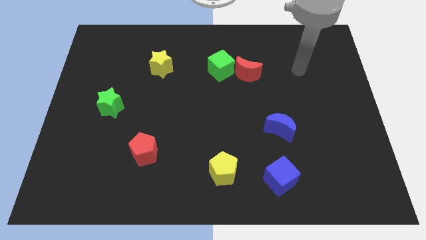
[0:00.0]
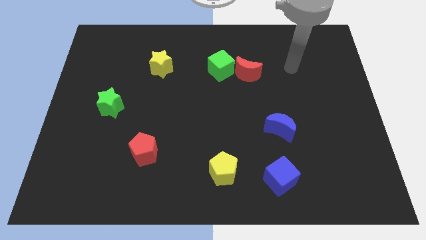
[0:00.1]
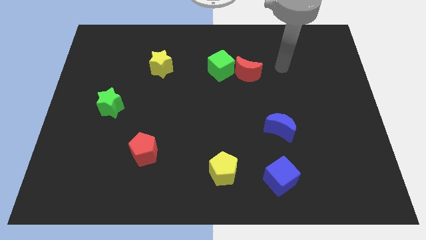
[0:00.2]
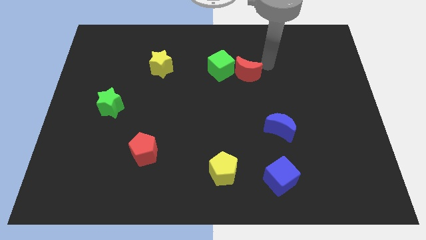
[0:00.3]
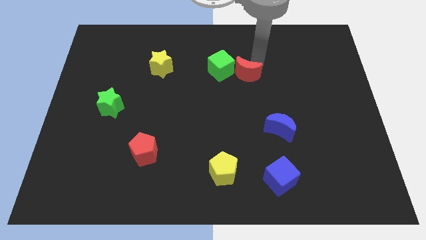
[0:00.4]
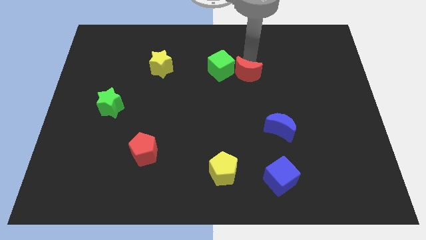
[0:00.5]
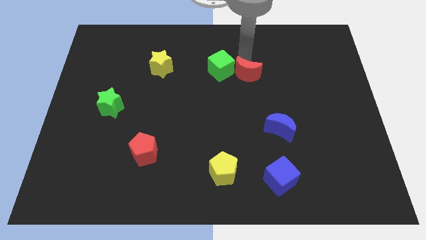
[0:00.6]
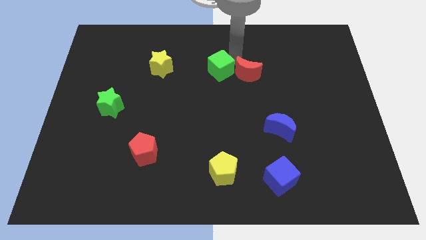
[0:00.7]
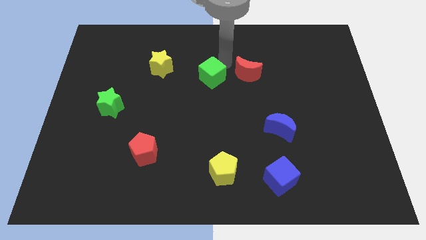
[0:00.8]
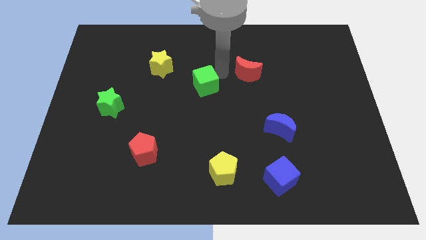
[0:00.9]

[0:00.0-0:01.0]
separate the red moon from the green cube

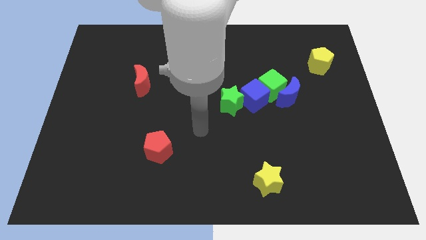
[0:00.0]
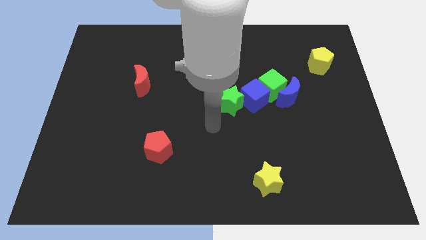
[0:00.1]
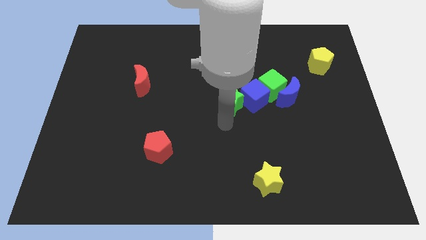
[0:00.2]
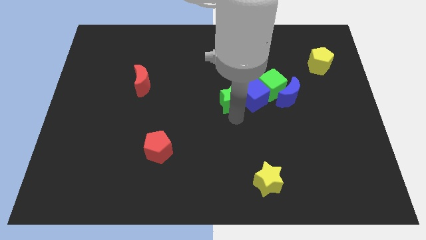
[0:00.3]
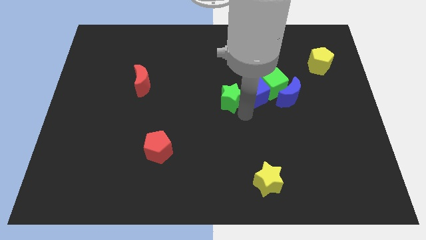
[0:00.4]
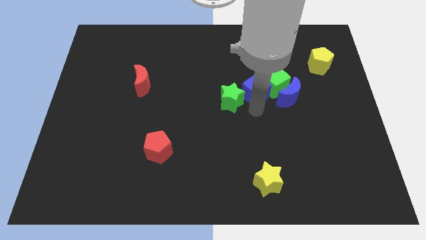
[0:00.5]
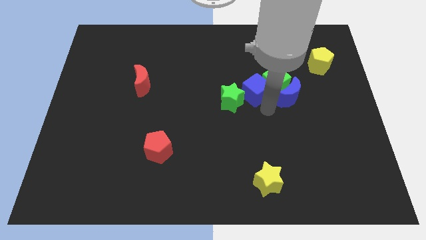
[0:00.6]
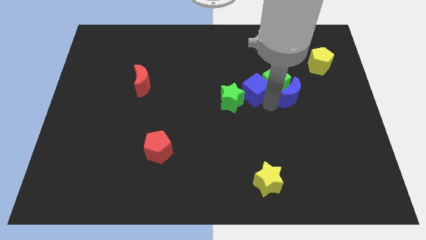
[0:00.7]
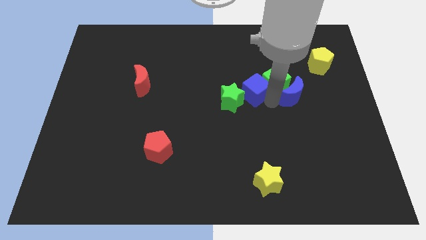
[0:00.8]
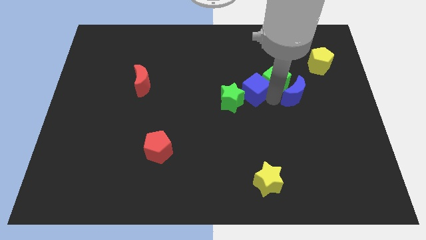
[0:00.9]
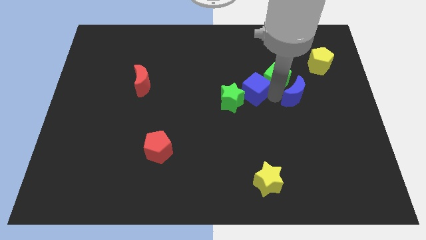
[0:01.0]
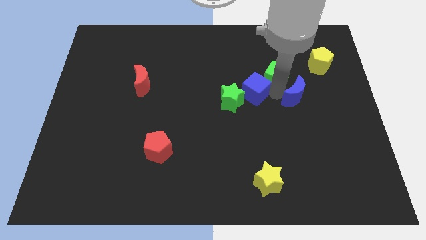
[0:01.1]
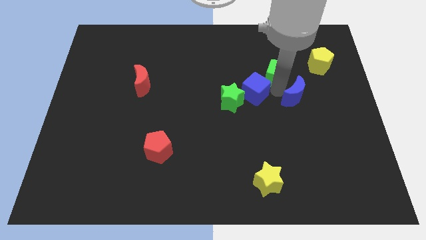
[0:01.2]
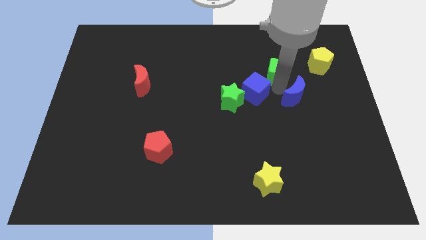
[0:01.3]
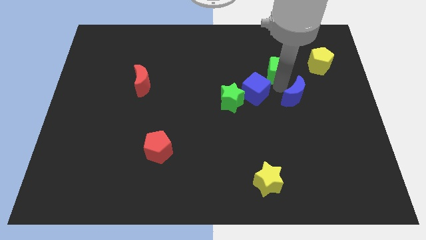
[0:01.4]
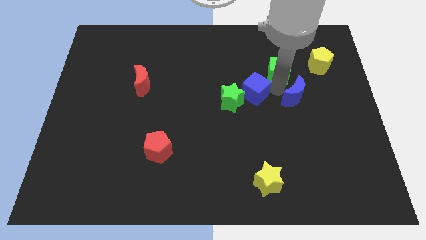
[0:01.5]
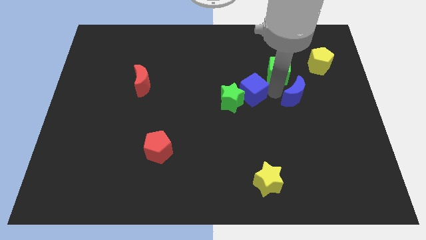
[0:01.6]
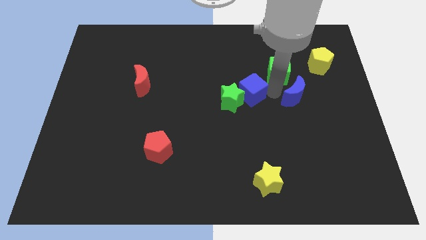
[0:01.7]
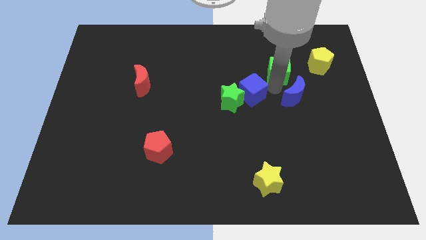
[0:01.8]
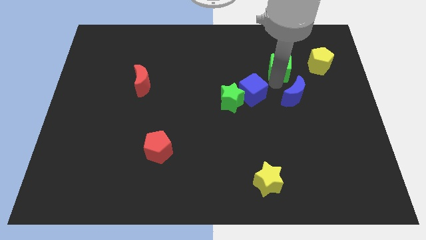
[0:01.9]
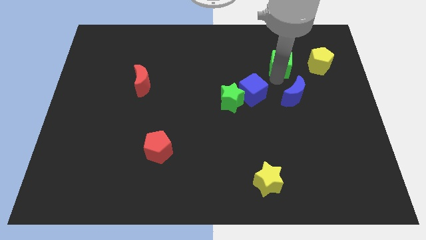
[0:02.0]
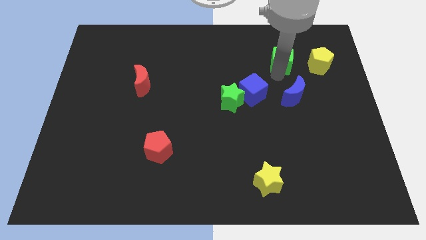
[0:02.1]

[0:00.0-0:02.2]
pull the green cube apart from the blue moon and blue cube

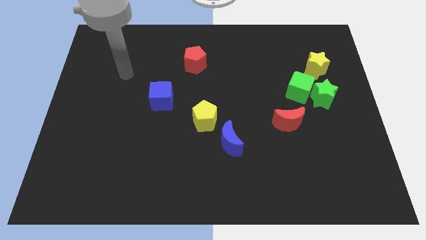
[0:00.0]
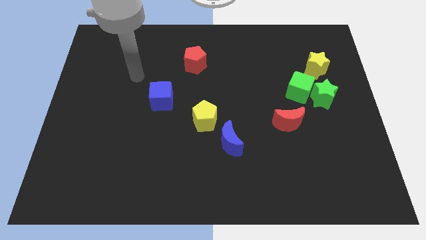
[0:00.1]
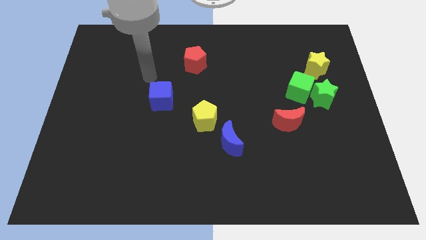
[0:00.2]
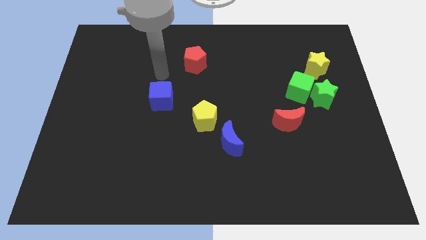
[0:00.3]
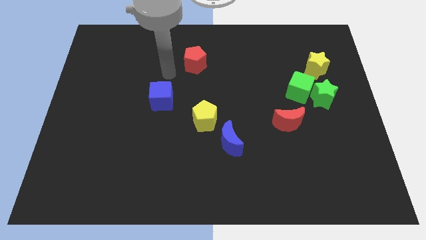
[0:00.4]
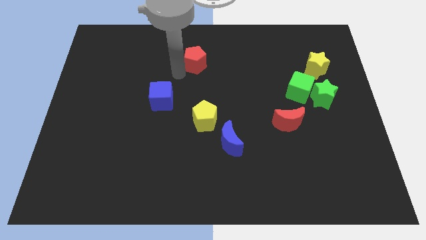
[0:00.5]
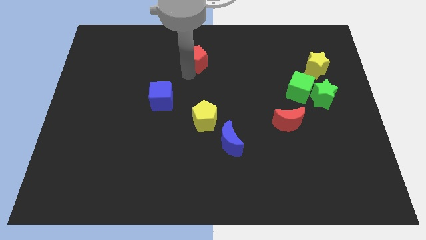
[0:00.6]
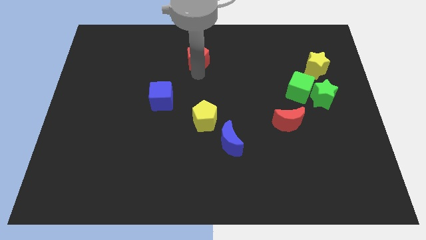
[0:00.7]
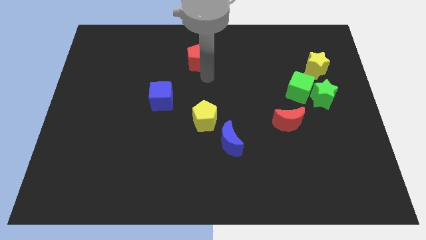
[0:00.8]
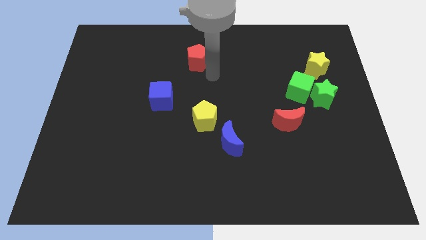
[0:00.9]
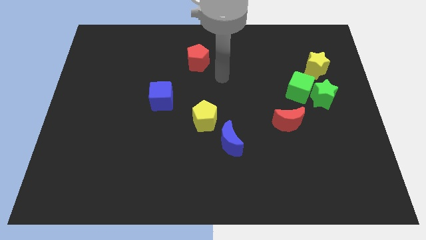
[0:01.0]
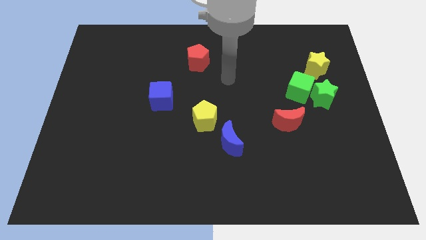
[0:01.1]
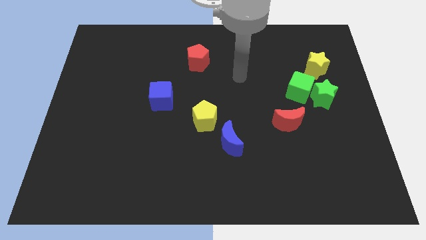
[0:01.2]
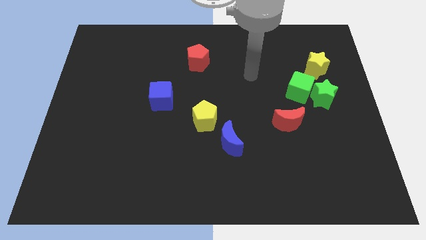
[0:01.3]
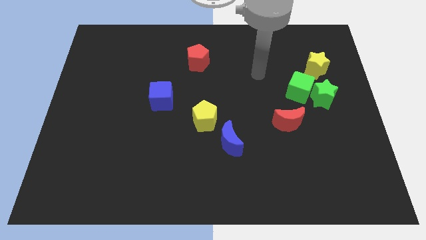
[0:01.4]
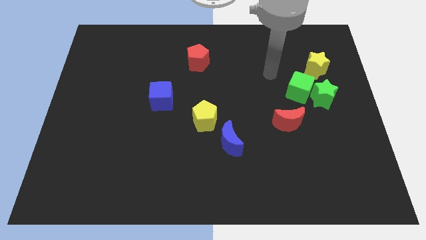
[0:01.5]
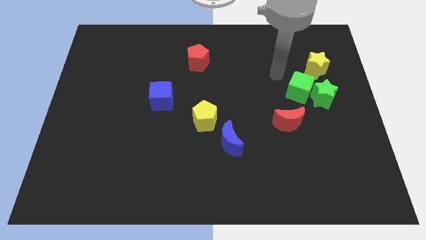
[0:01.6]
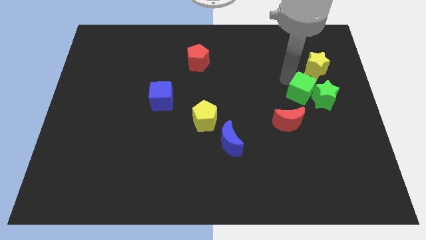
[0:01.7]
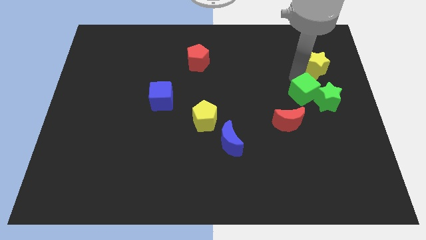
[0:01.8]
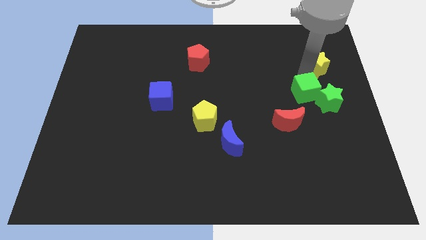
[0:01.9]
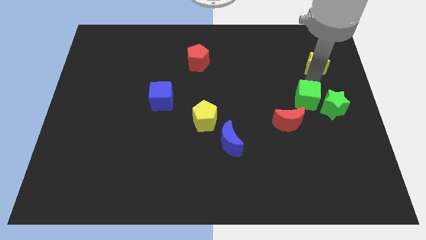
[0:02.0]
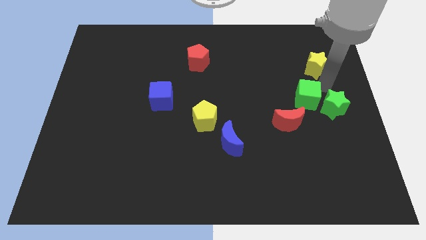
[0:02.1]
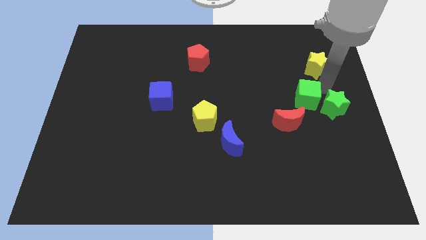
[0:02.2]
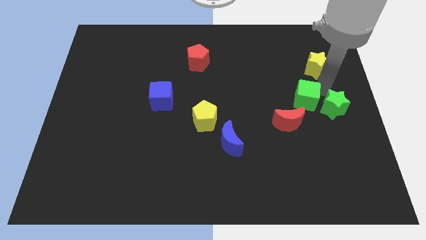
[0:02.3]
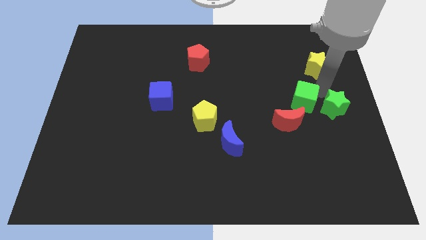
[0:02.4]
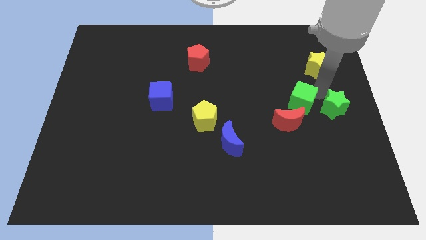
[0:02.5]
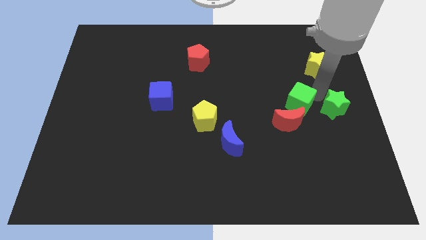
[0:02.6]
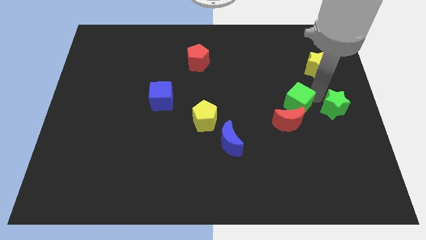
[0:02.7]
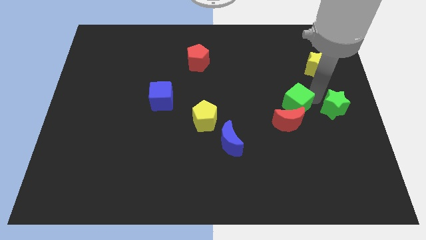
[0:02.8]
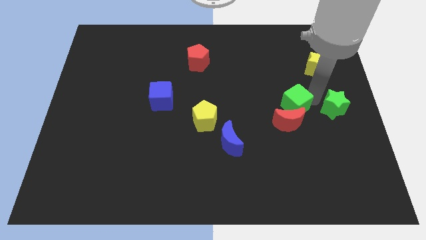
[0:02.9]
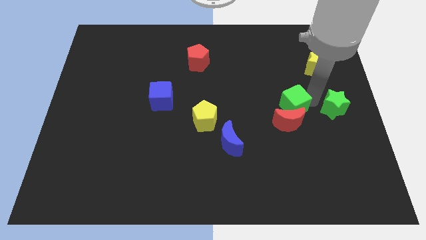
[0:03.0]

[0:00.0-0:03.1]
move the green cube away from the green star and yellow star

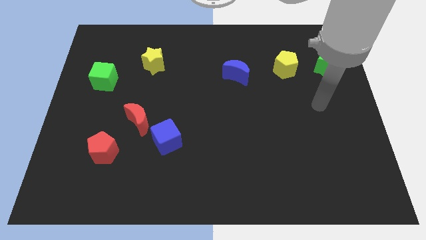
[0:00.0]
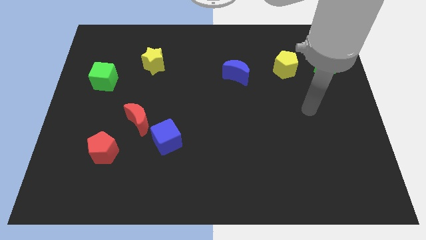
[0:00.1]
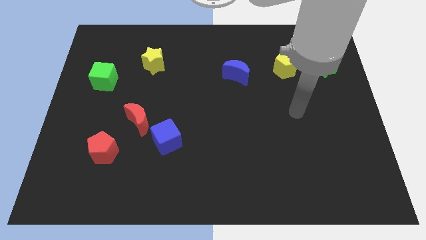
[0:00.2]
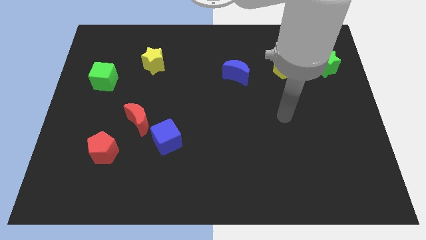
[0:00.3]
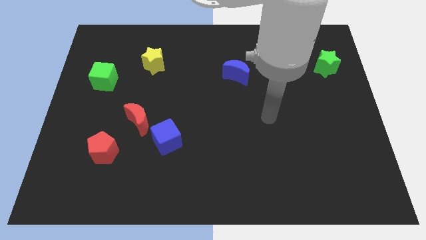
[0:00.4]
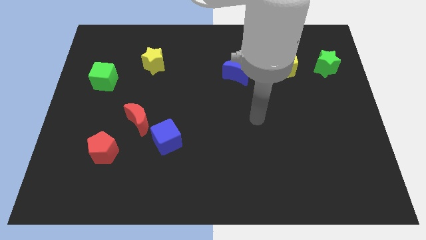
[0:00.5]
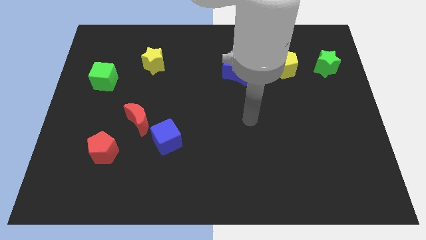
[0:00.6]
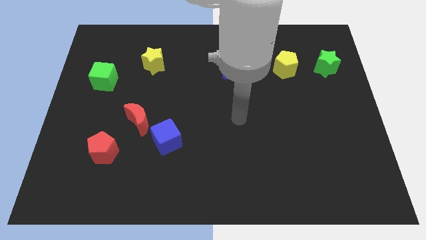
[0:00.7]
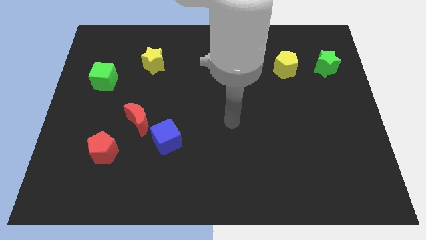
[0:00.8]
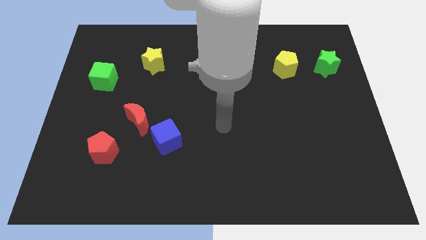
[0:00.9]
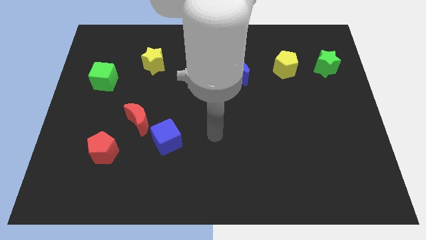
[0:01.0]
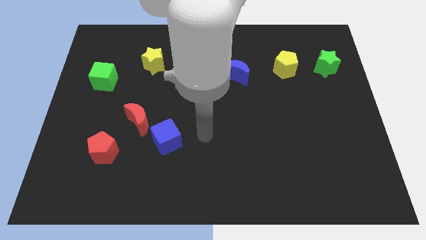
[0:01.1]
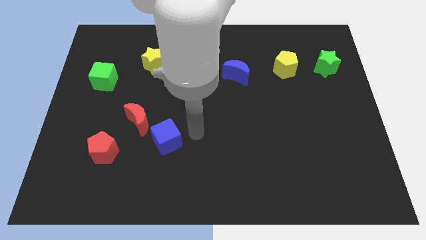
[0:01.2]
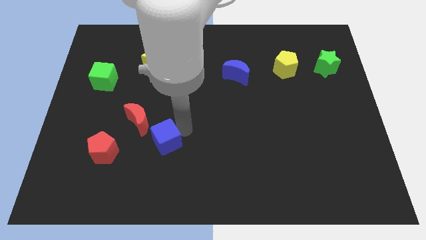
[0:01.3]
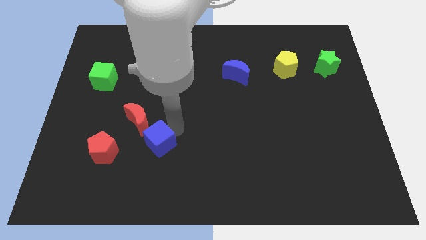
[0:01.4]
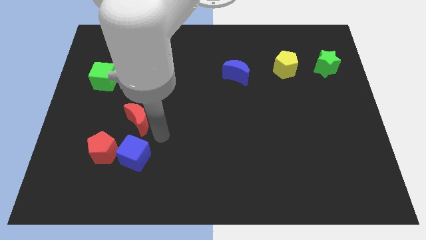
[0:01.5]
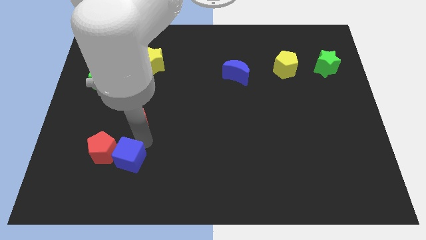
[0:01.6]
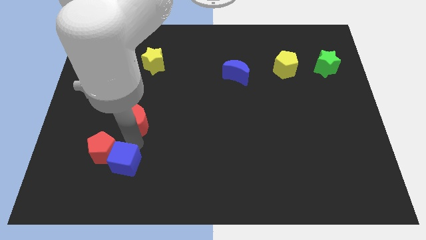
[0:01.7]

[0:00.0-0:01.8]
separate the red moon from the blue cube

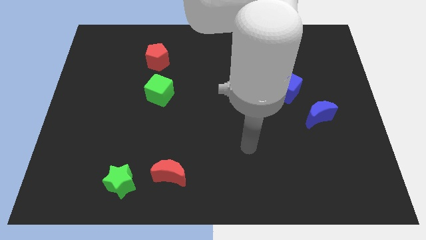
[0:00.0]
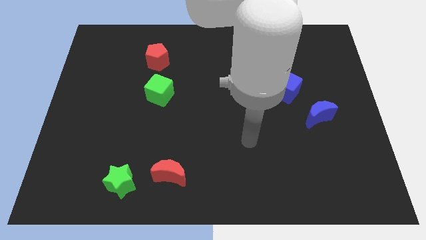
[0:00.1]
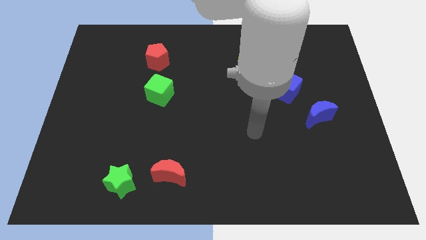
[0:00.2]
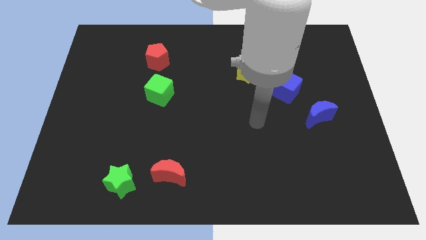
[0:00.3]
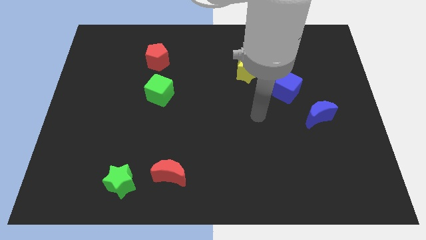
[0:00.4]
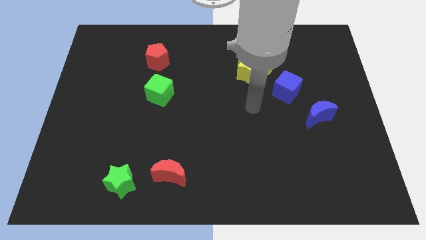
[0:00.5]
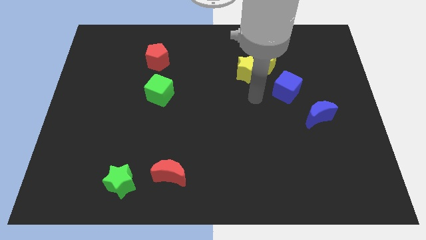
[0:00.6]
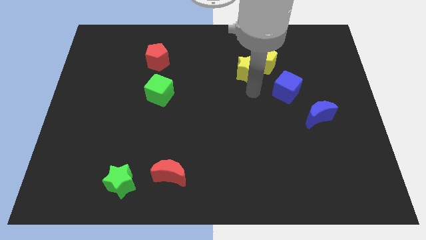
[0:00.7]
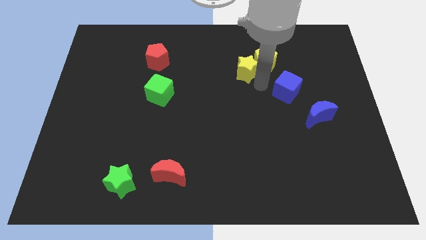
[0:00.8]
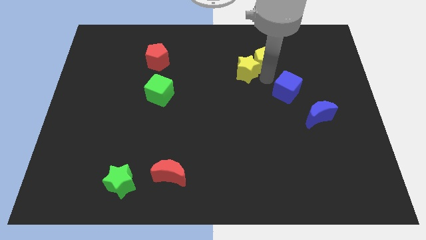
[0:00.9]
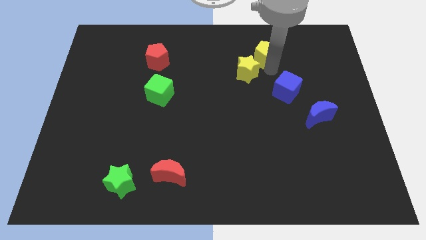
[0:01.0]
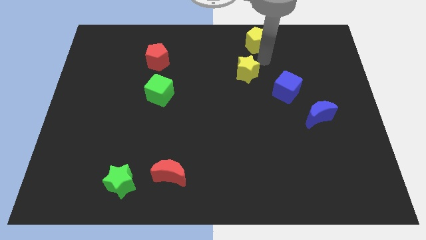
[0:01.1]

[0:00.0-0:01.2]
separate the yellow star from the yellow pentagon

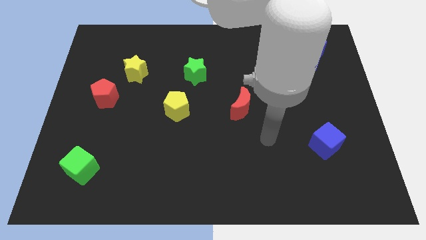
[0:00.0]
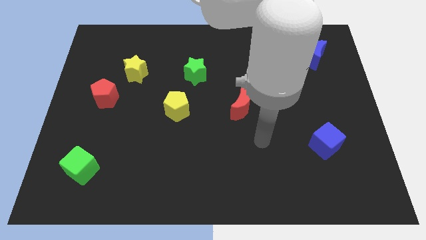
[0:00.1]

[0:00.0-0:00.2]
pull the red pentagon apart from the yellow star
